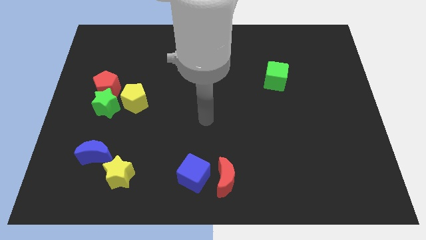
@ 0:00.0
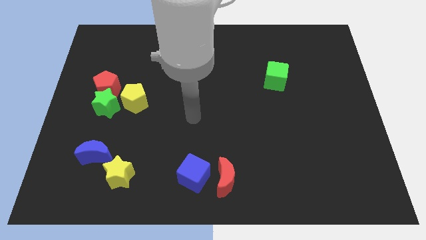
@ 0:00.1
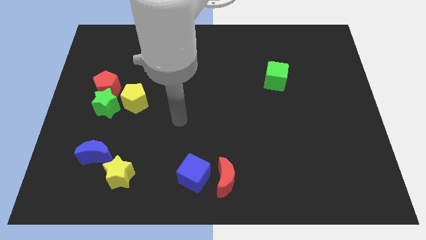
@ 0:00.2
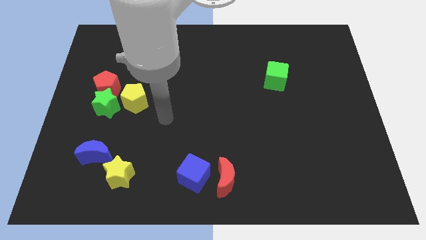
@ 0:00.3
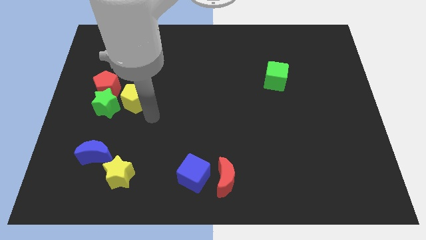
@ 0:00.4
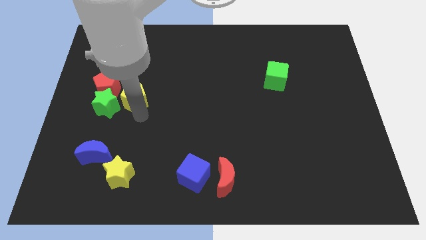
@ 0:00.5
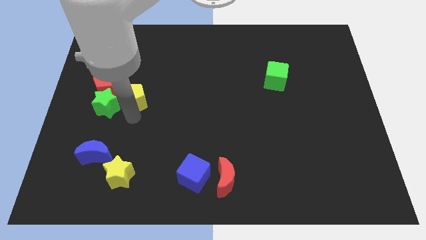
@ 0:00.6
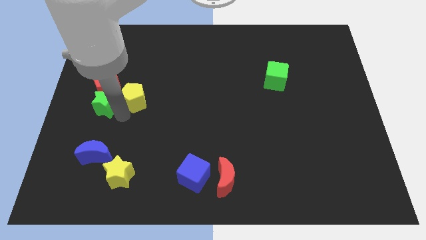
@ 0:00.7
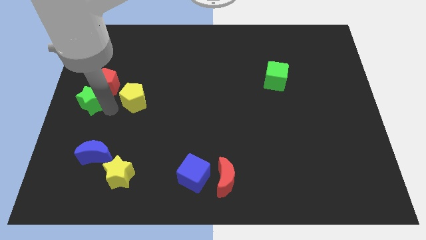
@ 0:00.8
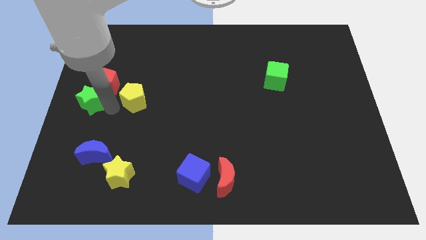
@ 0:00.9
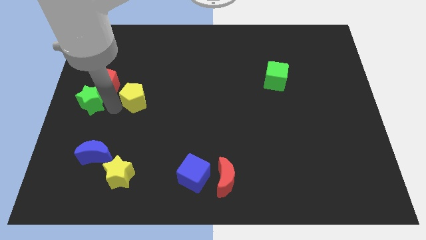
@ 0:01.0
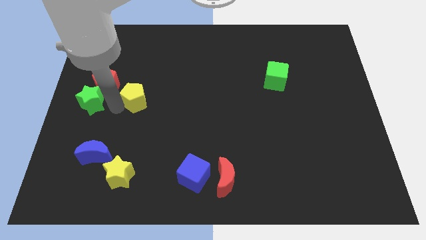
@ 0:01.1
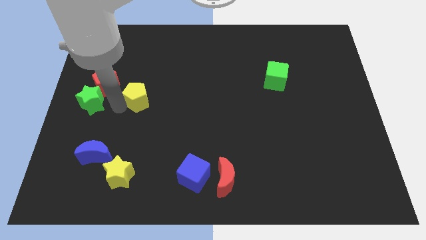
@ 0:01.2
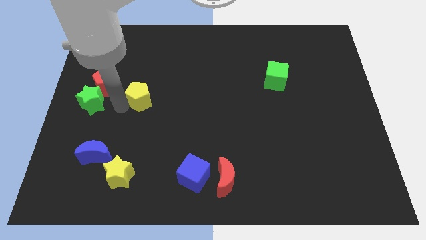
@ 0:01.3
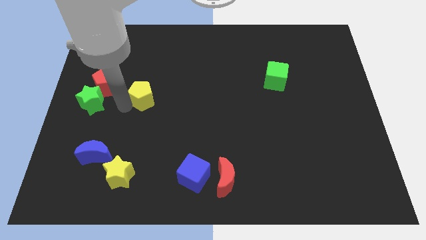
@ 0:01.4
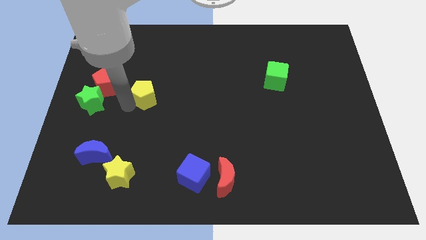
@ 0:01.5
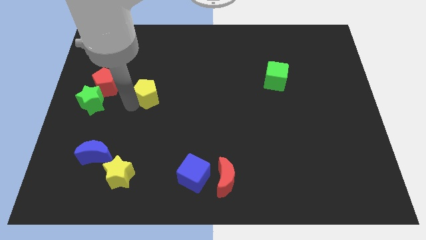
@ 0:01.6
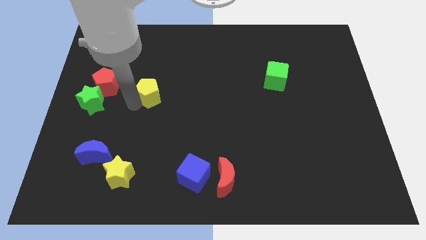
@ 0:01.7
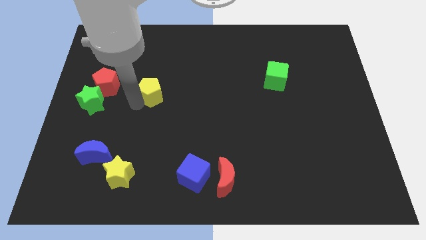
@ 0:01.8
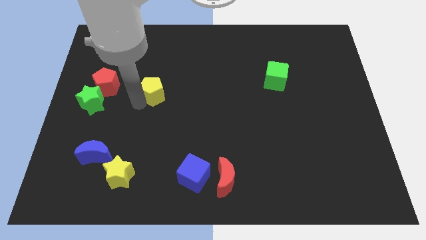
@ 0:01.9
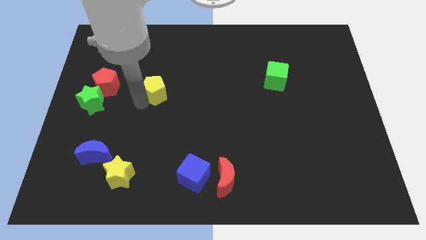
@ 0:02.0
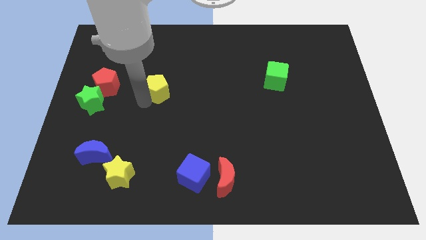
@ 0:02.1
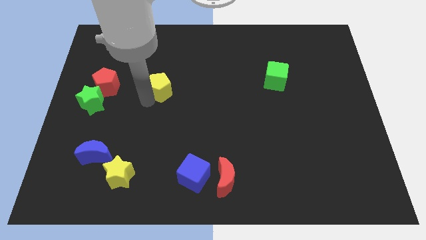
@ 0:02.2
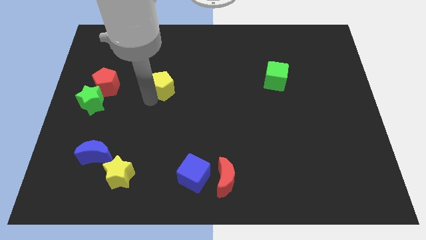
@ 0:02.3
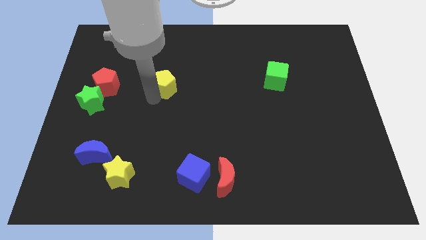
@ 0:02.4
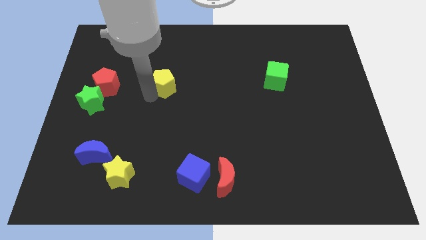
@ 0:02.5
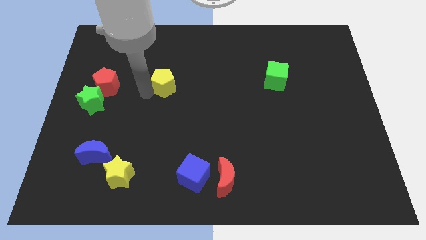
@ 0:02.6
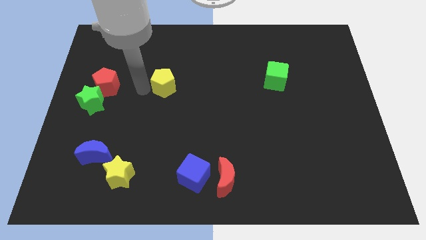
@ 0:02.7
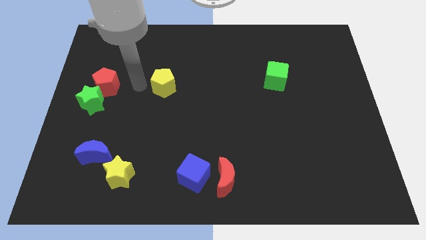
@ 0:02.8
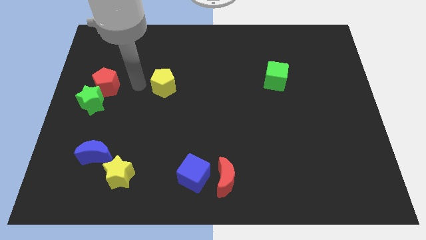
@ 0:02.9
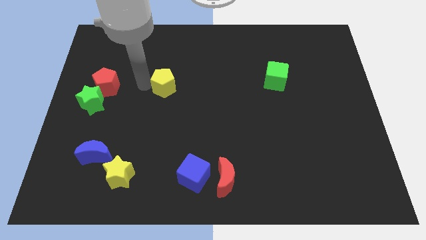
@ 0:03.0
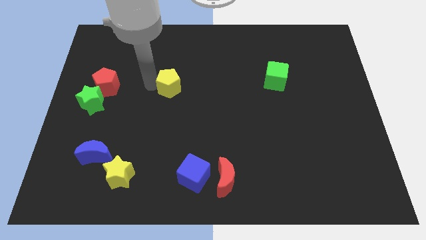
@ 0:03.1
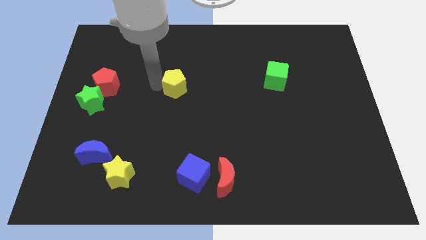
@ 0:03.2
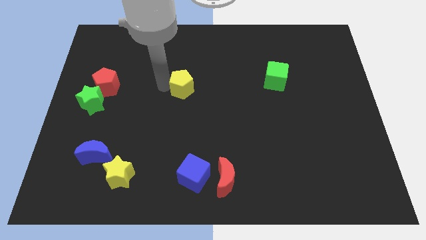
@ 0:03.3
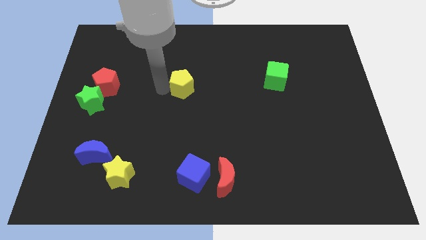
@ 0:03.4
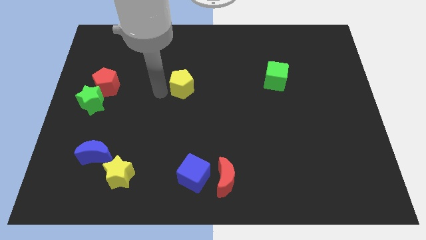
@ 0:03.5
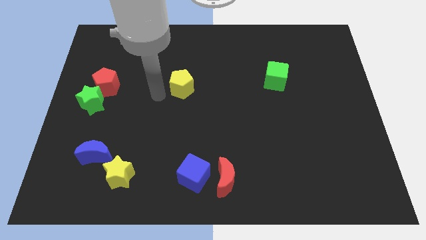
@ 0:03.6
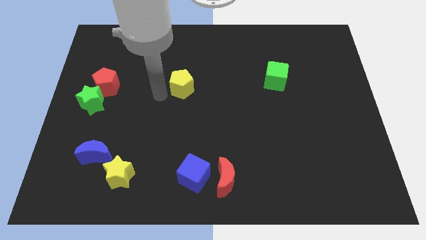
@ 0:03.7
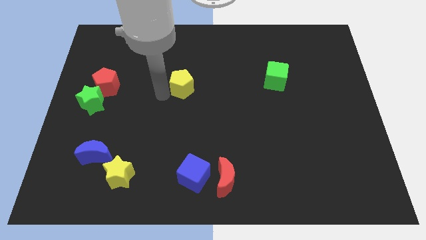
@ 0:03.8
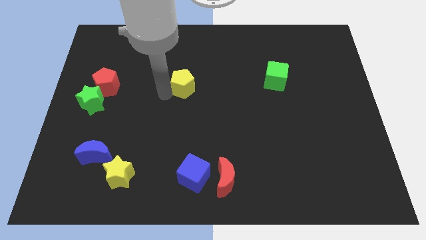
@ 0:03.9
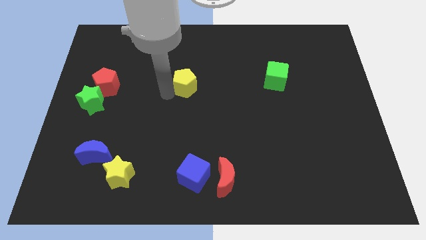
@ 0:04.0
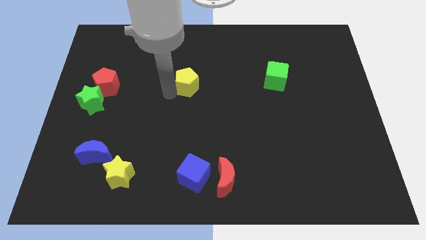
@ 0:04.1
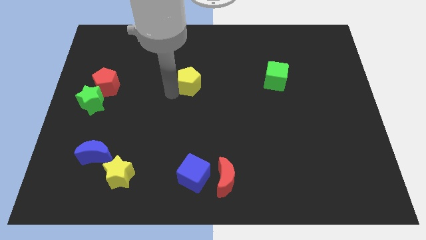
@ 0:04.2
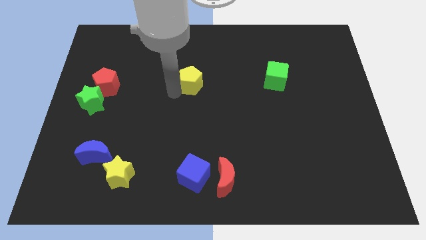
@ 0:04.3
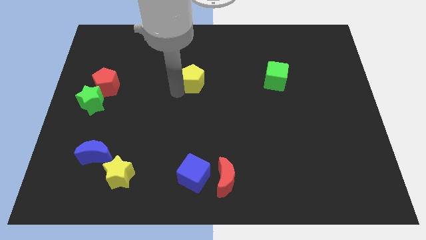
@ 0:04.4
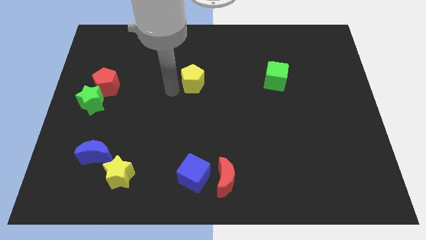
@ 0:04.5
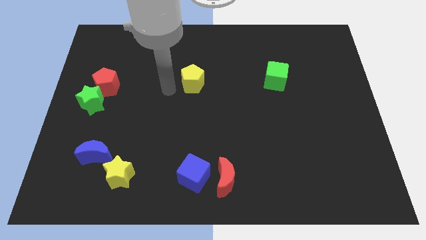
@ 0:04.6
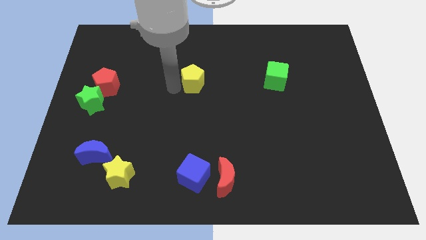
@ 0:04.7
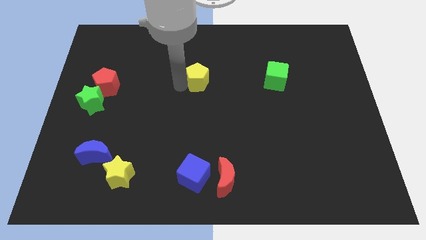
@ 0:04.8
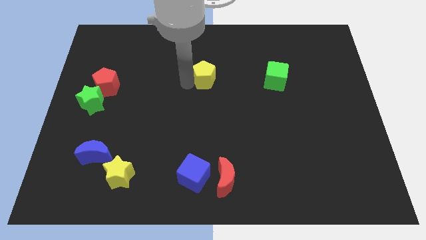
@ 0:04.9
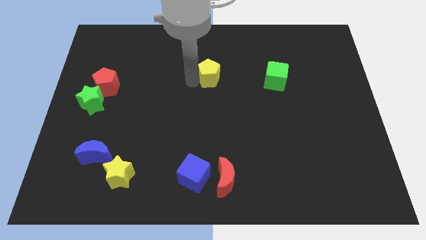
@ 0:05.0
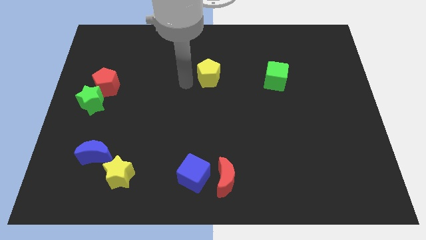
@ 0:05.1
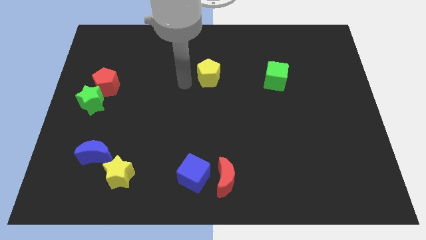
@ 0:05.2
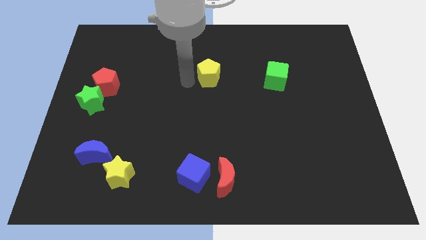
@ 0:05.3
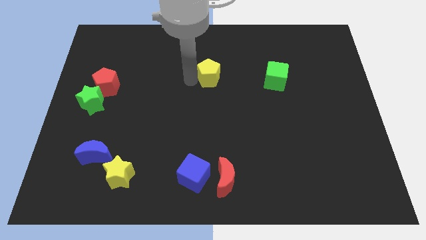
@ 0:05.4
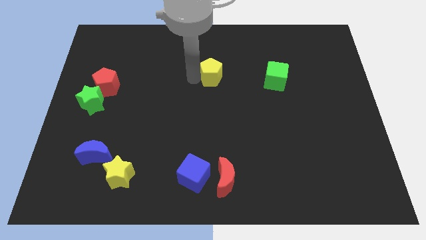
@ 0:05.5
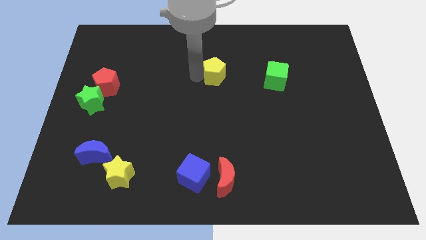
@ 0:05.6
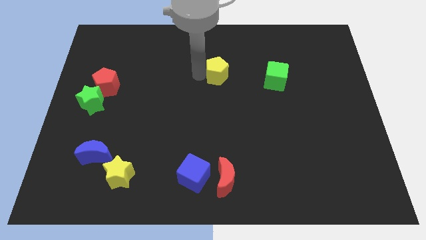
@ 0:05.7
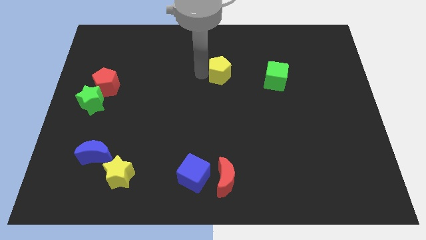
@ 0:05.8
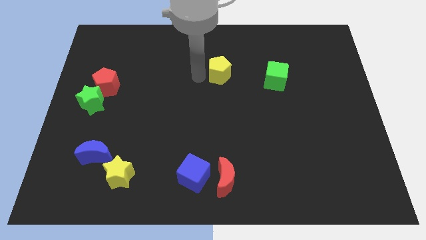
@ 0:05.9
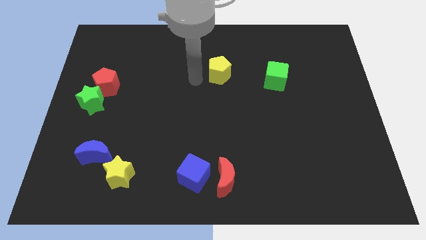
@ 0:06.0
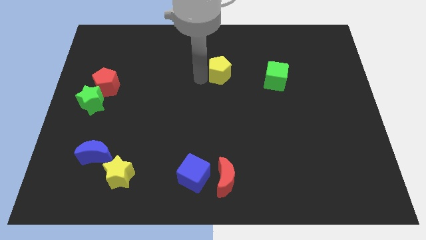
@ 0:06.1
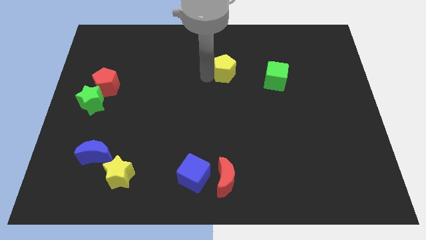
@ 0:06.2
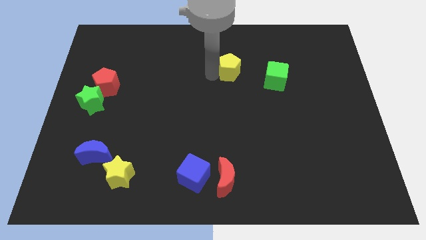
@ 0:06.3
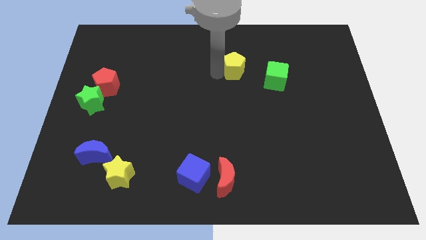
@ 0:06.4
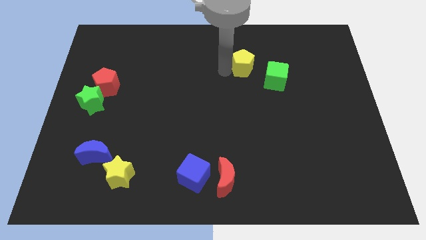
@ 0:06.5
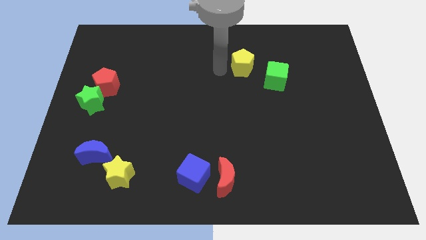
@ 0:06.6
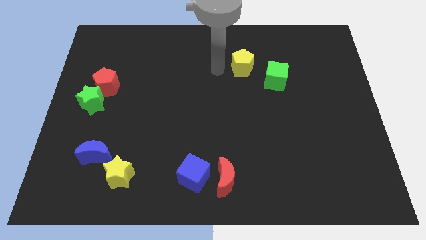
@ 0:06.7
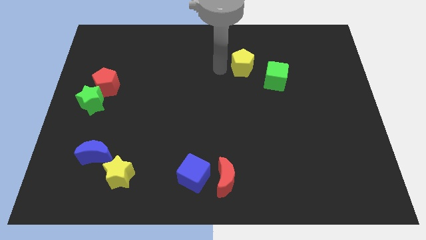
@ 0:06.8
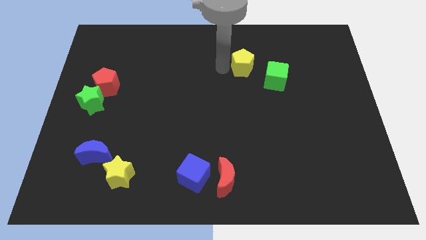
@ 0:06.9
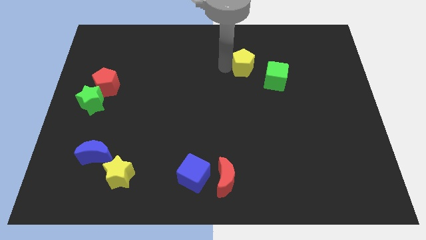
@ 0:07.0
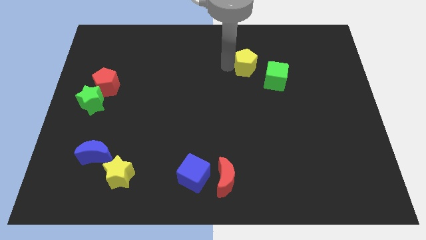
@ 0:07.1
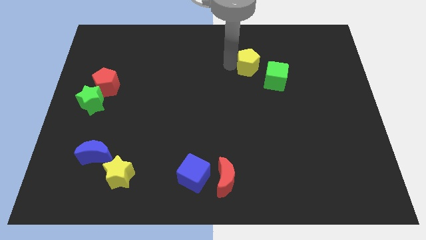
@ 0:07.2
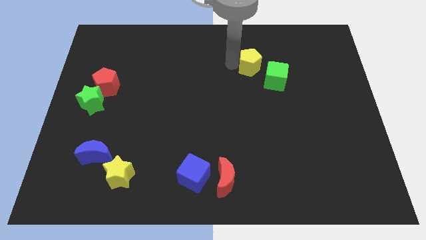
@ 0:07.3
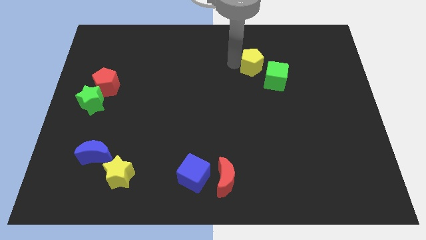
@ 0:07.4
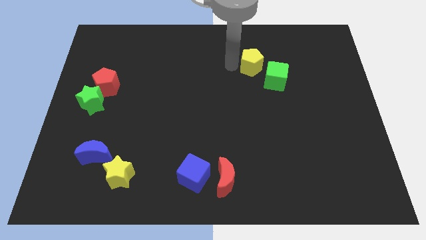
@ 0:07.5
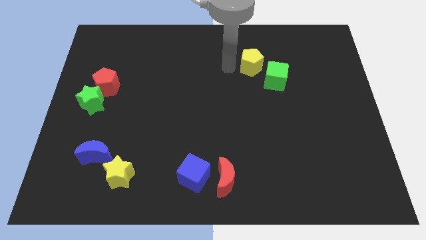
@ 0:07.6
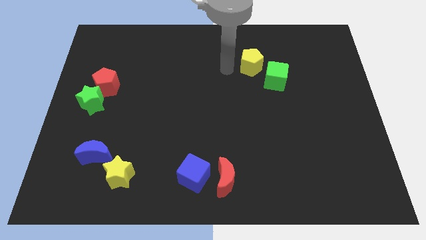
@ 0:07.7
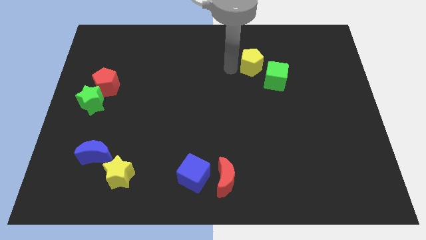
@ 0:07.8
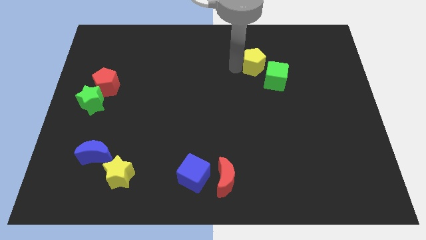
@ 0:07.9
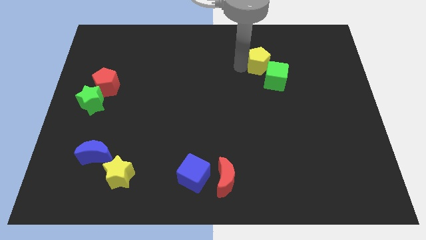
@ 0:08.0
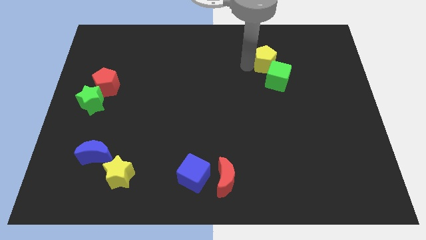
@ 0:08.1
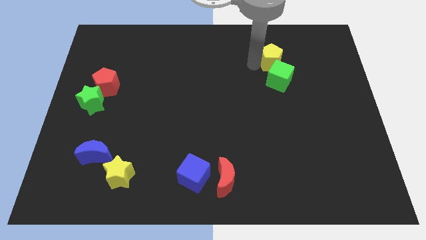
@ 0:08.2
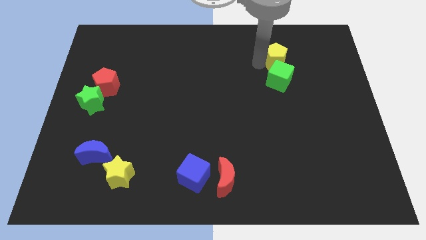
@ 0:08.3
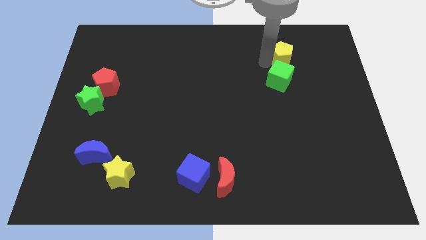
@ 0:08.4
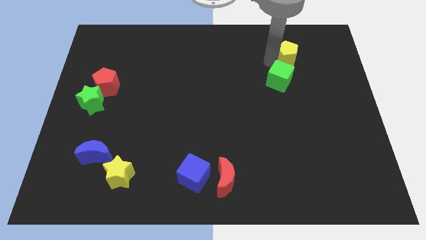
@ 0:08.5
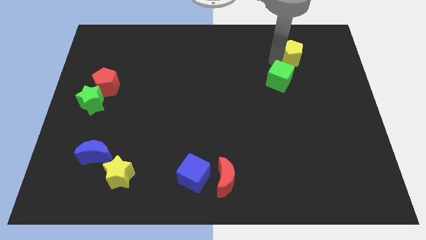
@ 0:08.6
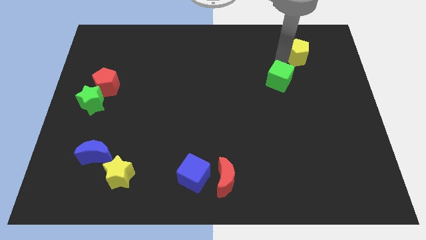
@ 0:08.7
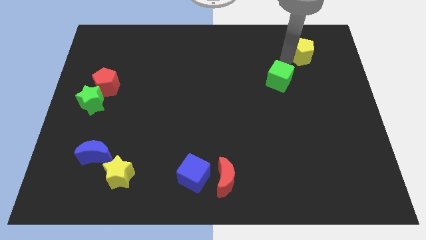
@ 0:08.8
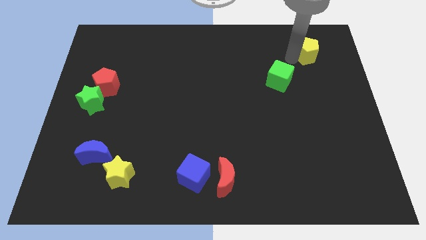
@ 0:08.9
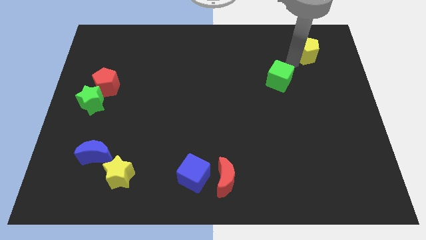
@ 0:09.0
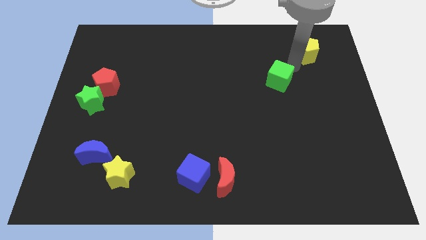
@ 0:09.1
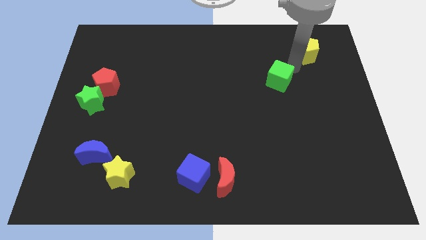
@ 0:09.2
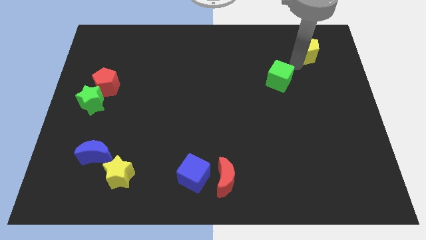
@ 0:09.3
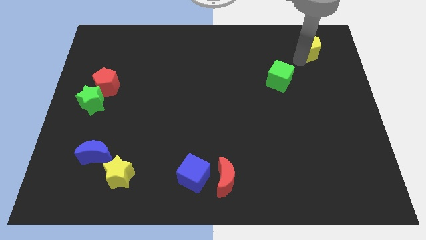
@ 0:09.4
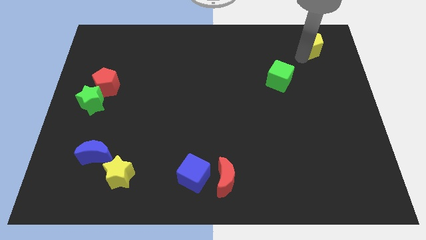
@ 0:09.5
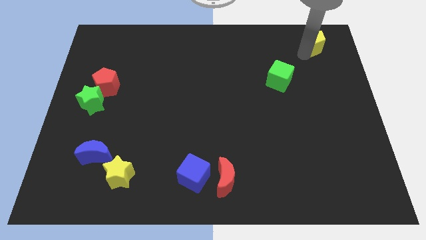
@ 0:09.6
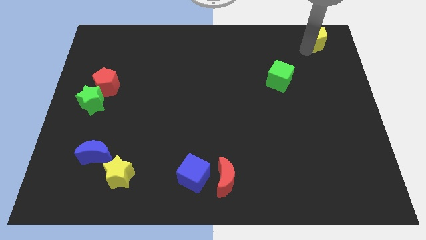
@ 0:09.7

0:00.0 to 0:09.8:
put the yellow pentagon to the top right of the board
